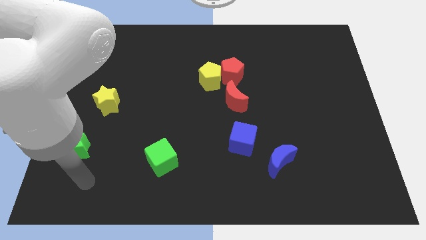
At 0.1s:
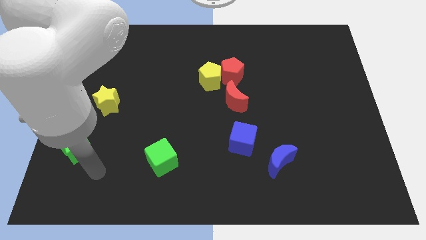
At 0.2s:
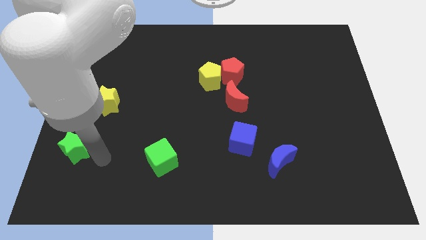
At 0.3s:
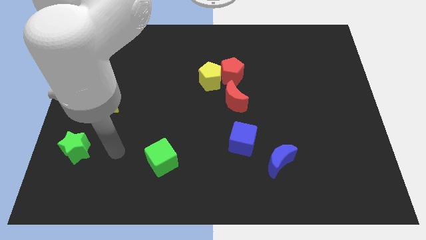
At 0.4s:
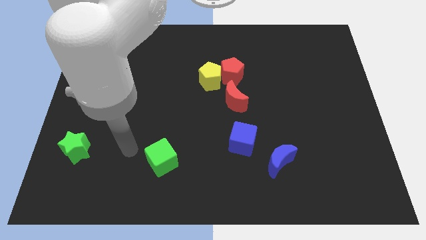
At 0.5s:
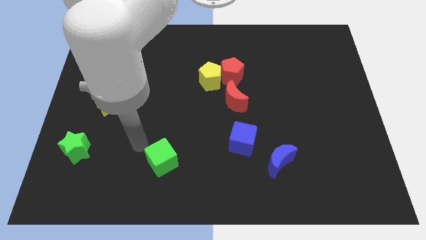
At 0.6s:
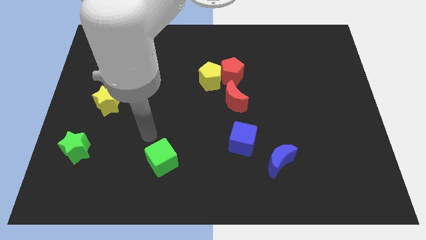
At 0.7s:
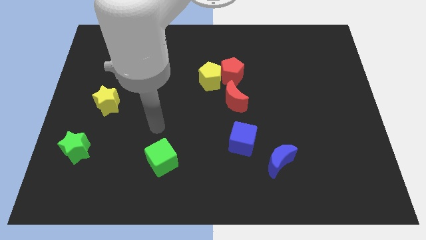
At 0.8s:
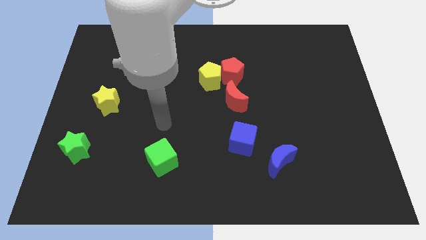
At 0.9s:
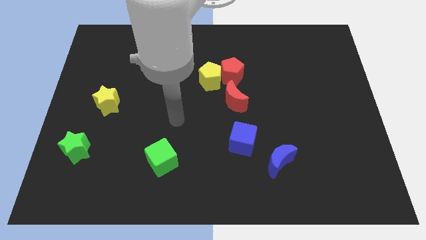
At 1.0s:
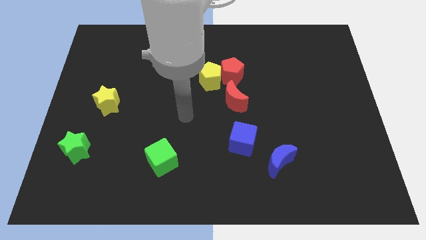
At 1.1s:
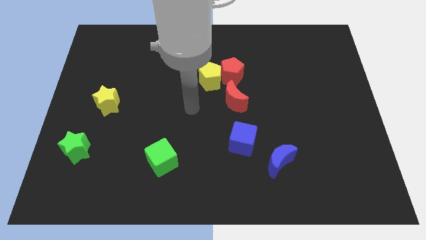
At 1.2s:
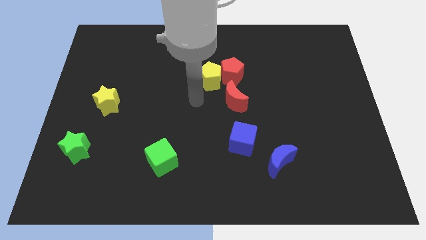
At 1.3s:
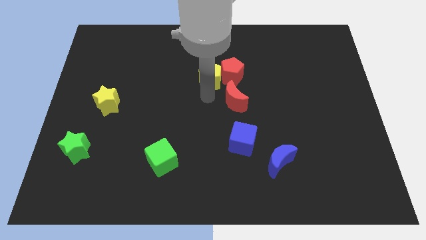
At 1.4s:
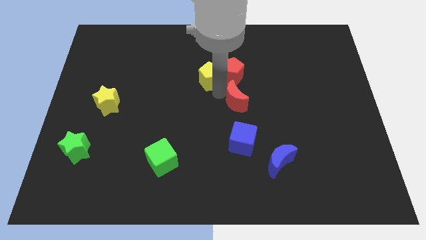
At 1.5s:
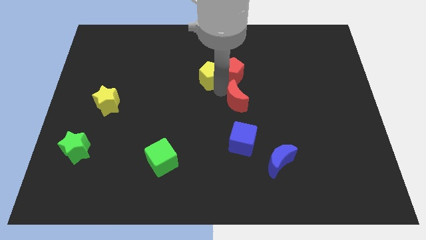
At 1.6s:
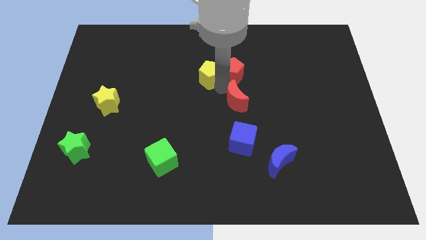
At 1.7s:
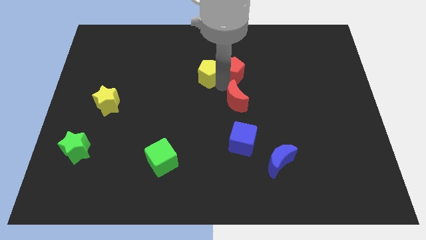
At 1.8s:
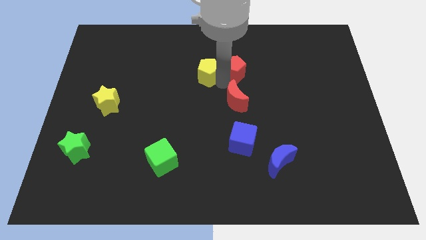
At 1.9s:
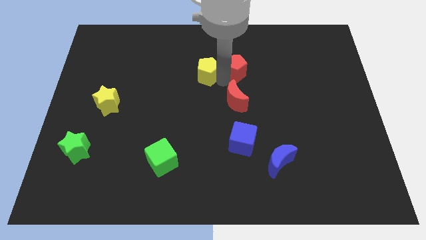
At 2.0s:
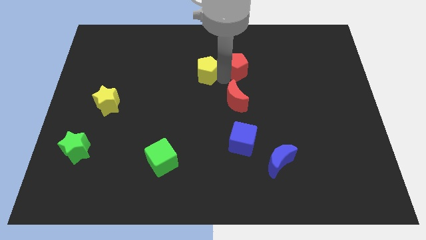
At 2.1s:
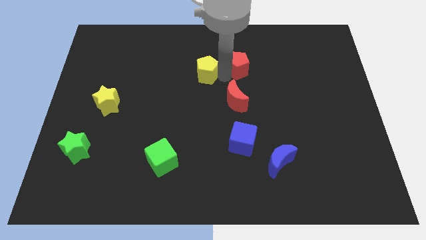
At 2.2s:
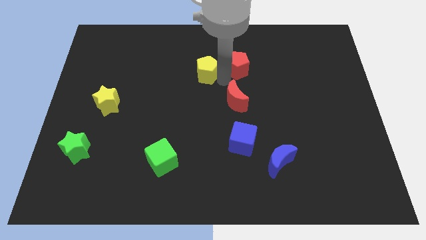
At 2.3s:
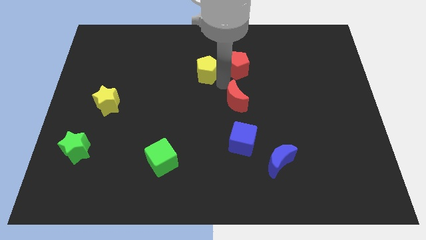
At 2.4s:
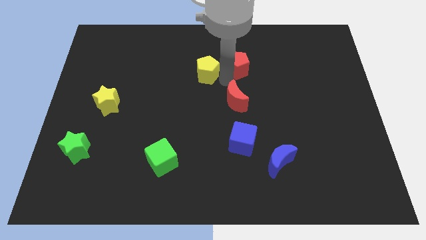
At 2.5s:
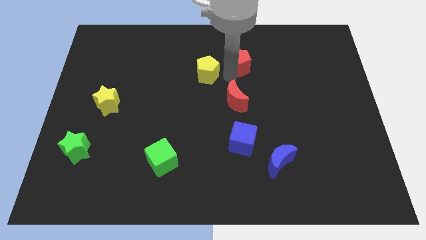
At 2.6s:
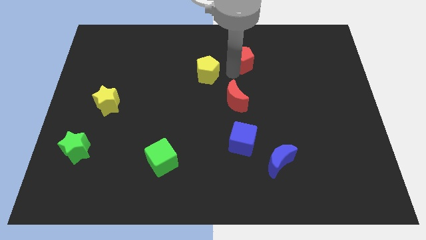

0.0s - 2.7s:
separate the red pentagon from the yellow pentagon and red moon

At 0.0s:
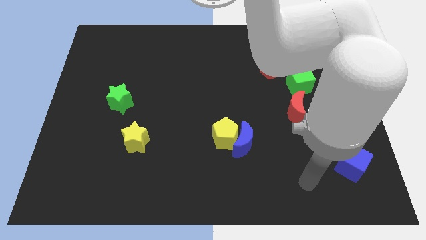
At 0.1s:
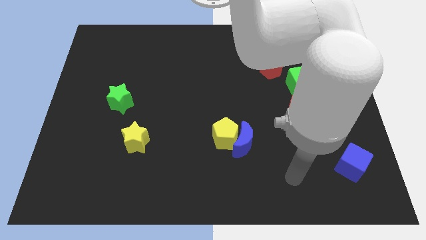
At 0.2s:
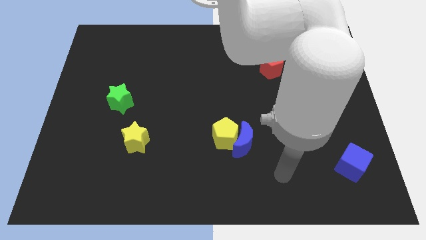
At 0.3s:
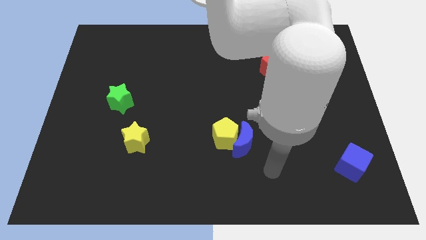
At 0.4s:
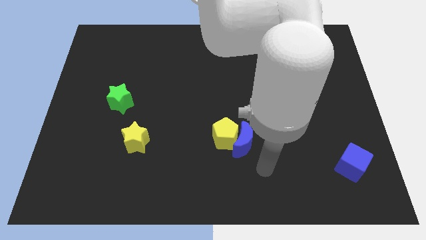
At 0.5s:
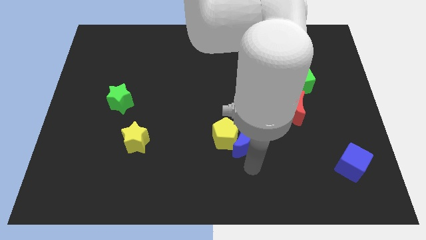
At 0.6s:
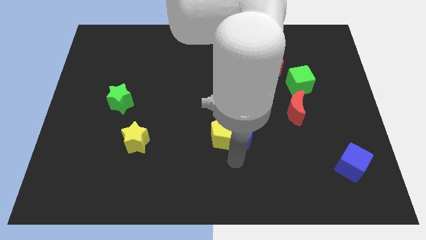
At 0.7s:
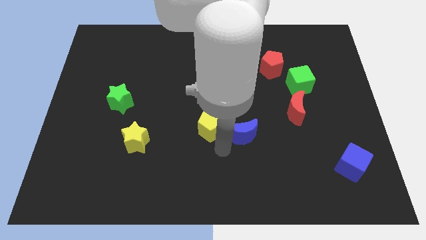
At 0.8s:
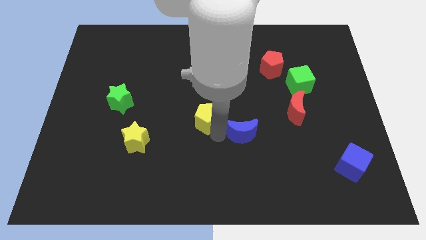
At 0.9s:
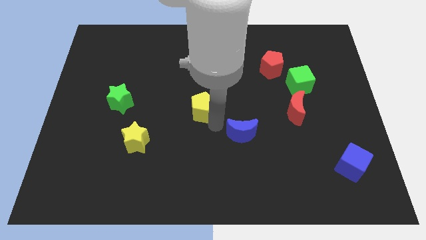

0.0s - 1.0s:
pull the blue moon apart from the yellow pentagon

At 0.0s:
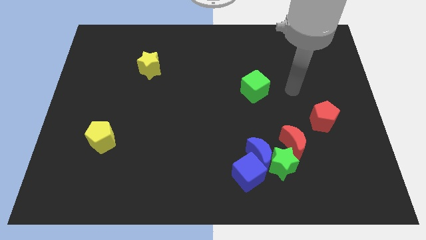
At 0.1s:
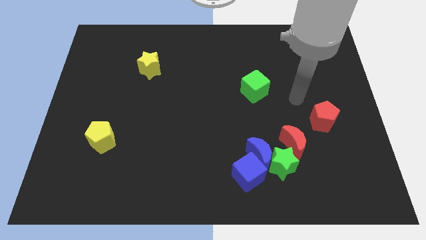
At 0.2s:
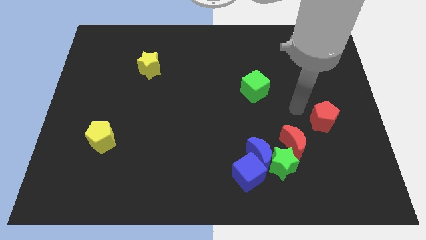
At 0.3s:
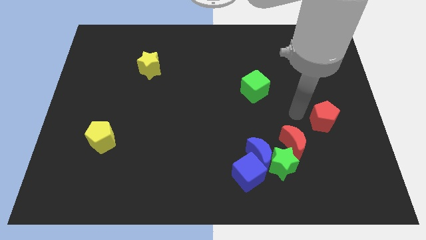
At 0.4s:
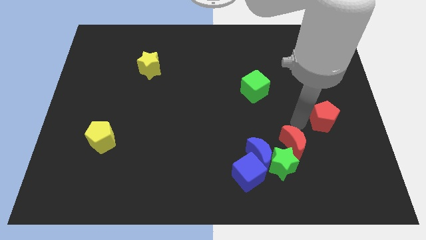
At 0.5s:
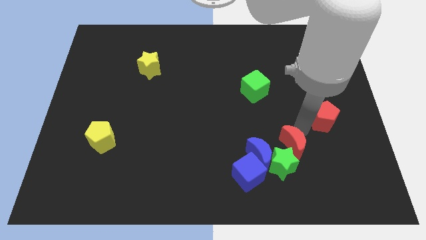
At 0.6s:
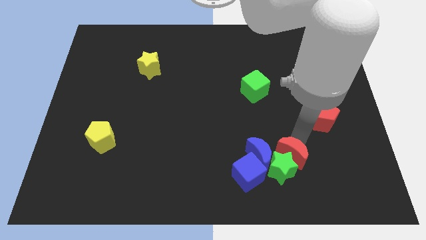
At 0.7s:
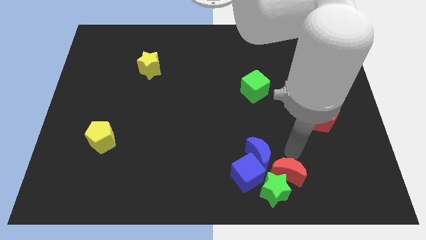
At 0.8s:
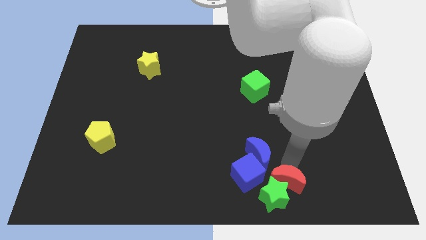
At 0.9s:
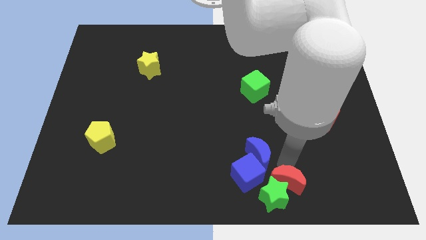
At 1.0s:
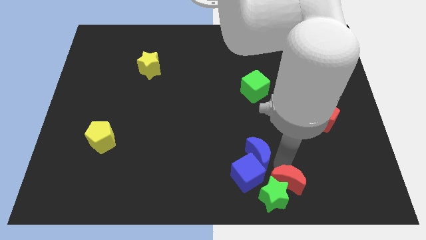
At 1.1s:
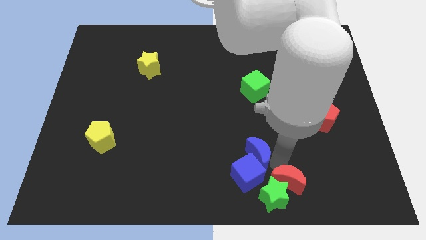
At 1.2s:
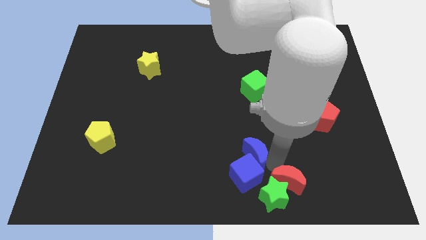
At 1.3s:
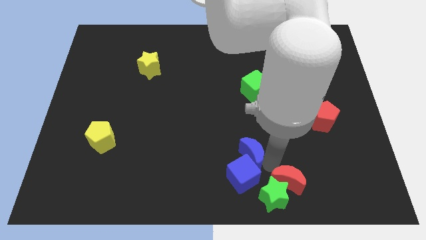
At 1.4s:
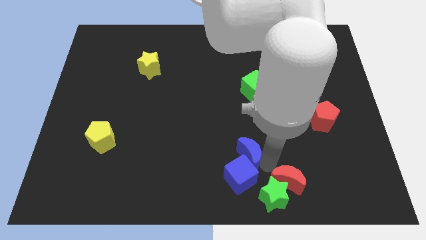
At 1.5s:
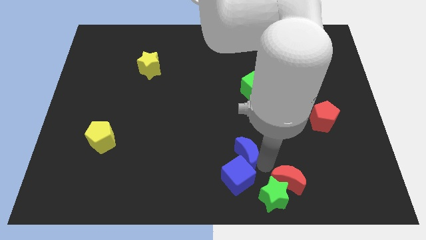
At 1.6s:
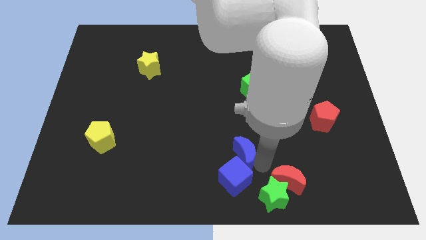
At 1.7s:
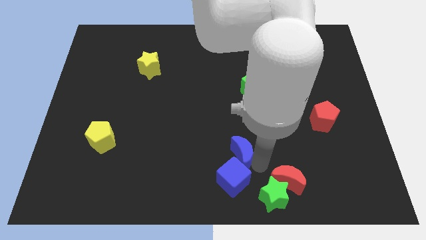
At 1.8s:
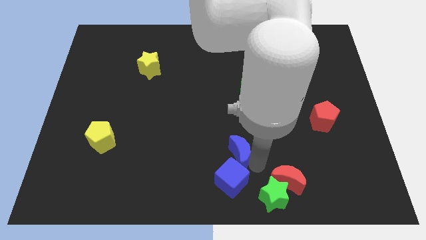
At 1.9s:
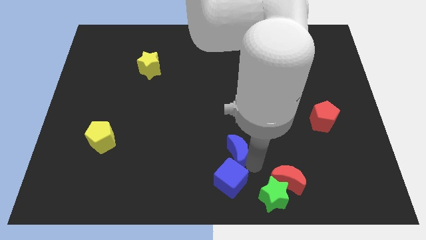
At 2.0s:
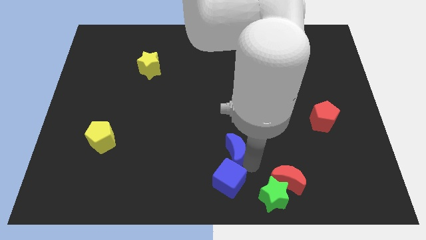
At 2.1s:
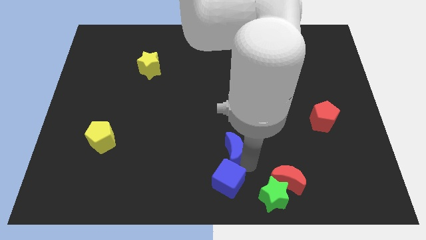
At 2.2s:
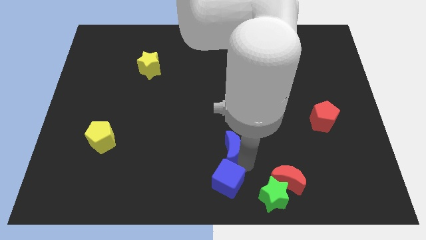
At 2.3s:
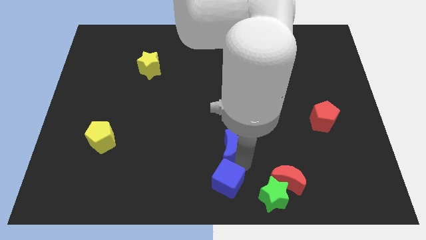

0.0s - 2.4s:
move the blue moon away from the group

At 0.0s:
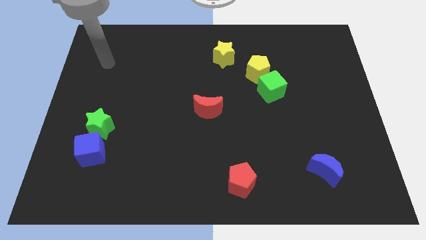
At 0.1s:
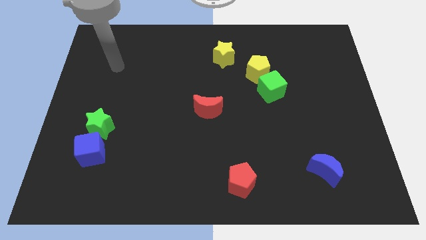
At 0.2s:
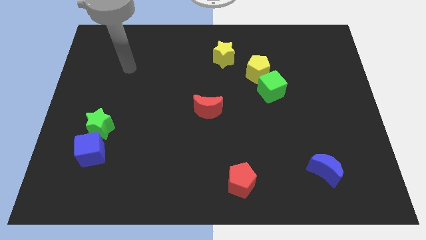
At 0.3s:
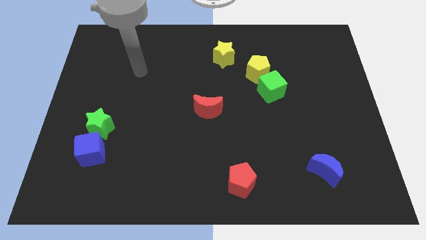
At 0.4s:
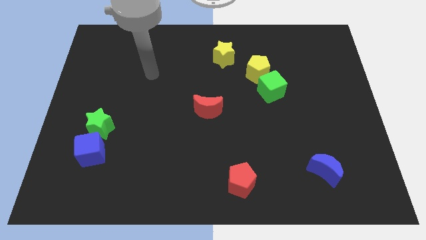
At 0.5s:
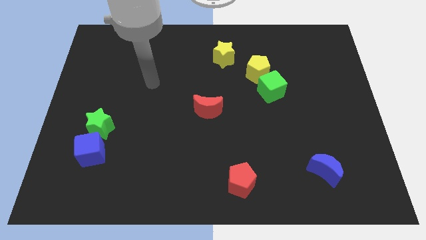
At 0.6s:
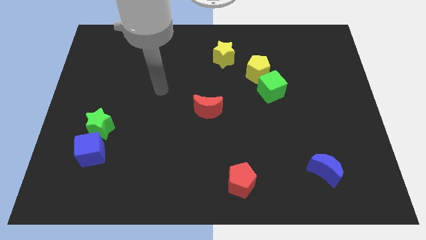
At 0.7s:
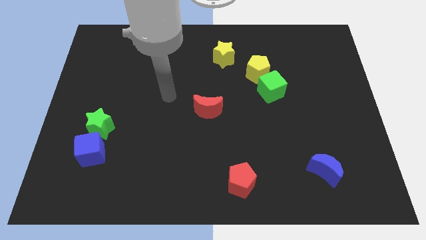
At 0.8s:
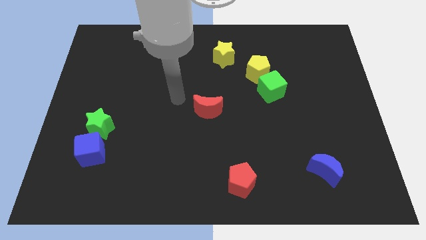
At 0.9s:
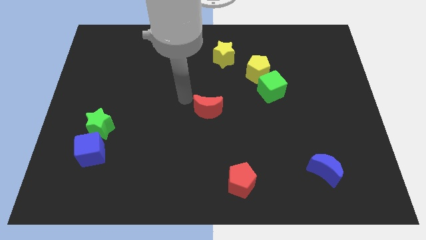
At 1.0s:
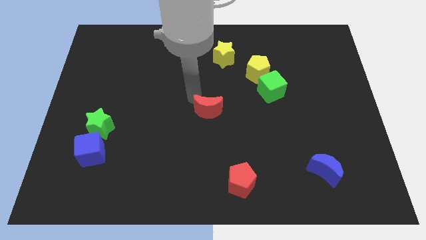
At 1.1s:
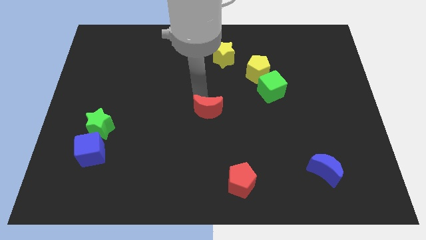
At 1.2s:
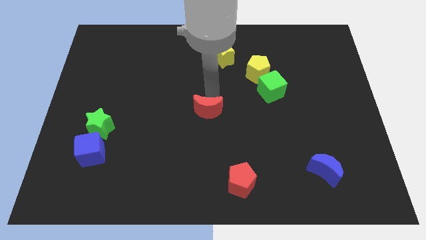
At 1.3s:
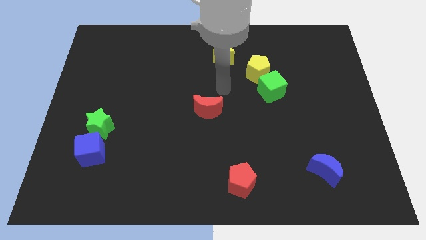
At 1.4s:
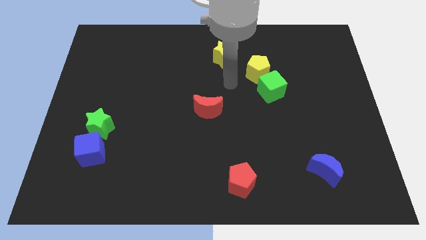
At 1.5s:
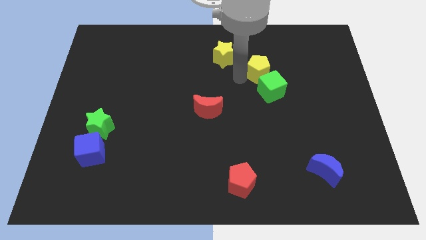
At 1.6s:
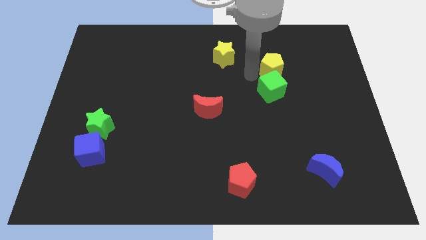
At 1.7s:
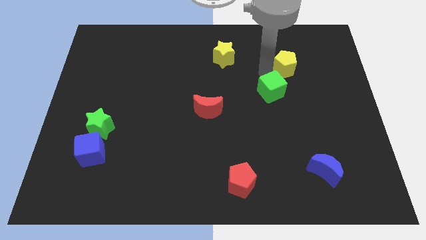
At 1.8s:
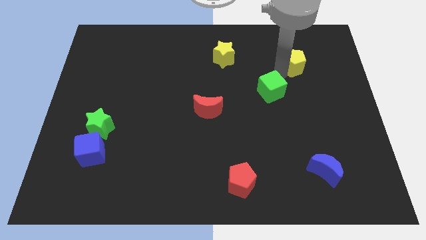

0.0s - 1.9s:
move the green cube away from the yellow pentagon

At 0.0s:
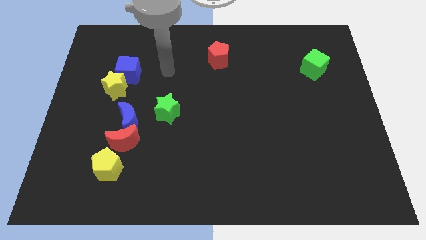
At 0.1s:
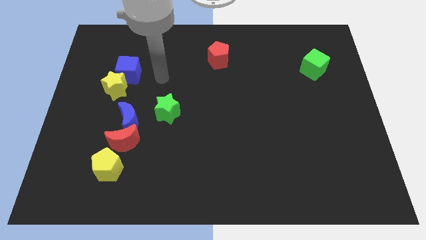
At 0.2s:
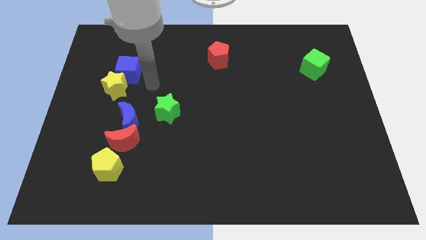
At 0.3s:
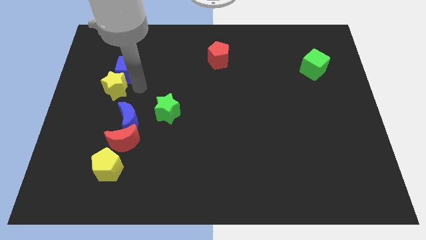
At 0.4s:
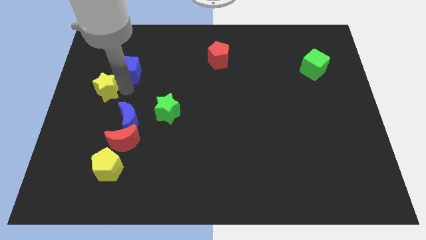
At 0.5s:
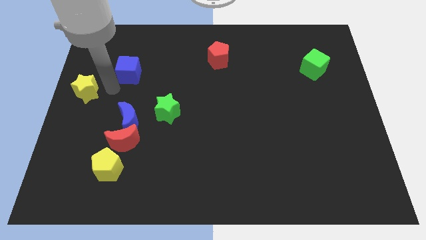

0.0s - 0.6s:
separate the blue cube from the yellow star

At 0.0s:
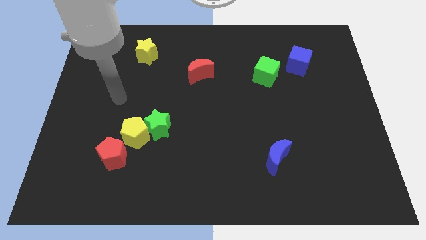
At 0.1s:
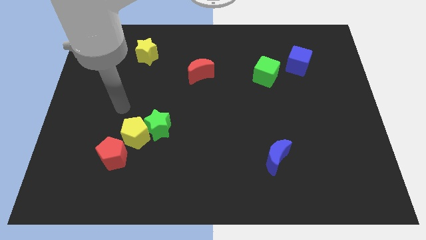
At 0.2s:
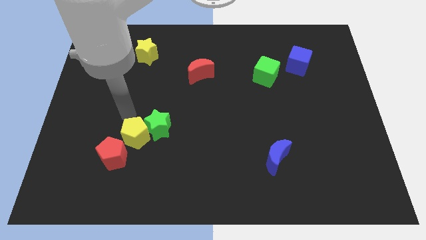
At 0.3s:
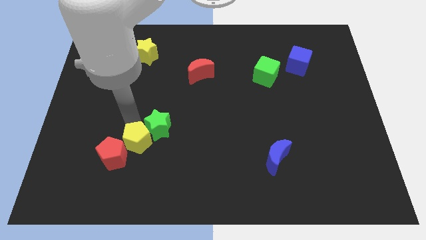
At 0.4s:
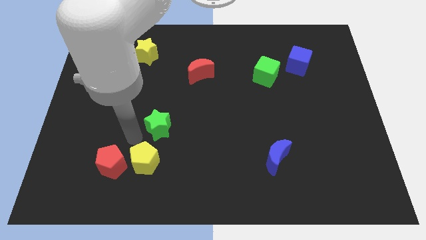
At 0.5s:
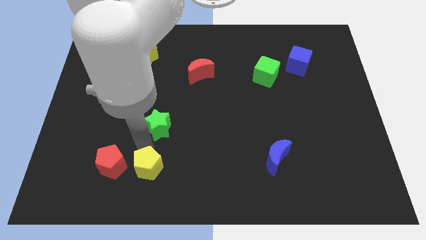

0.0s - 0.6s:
move the green star away from the yellow pentagon

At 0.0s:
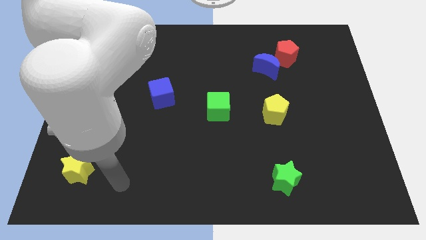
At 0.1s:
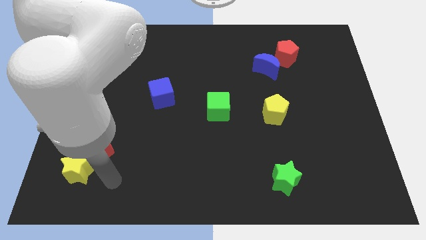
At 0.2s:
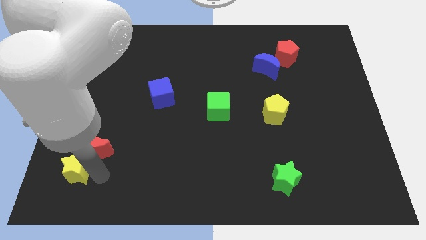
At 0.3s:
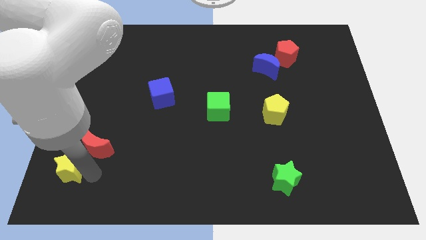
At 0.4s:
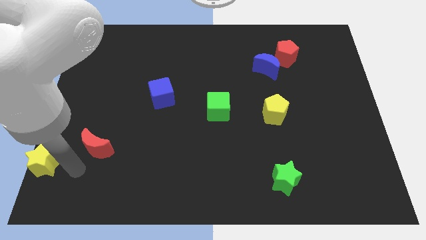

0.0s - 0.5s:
separate the red moon from the yellow star
